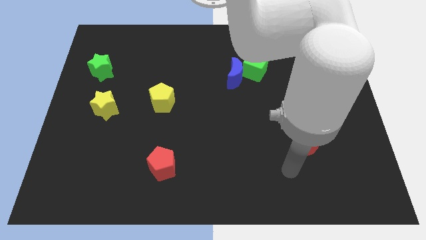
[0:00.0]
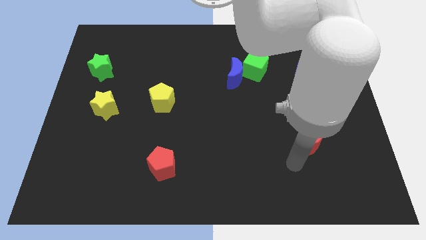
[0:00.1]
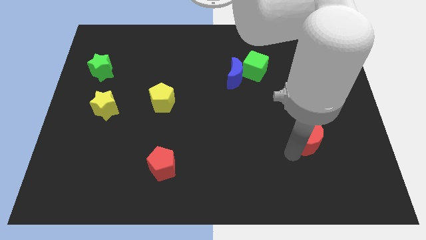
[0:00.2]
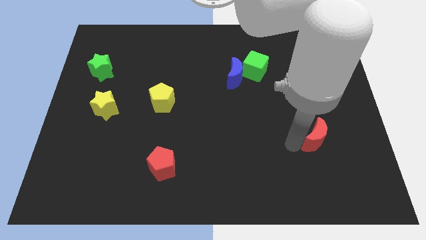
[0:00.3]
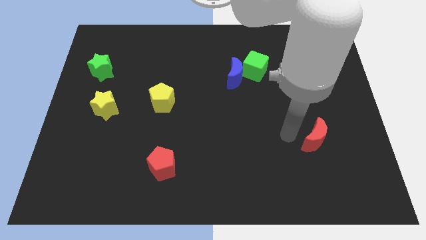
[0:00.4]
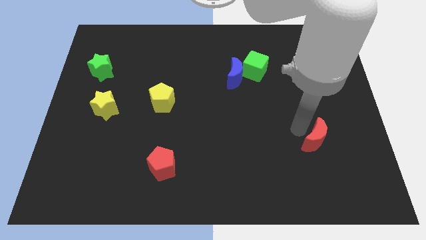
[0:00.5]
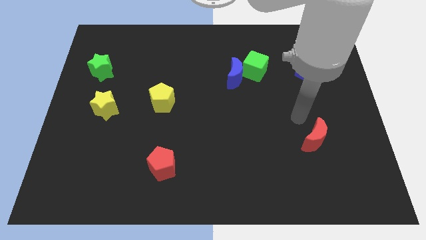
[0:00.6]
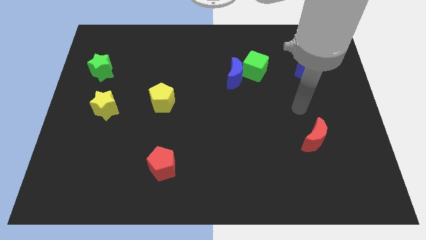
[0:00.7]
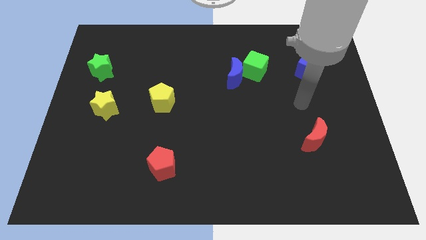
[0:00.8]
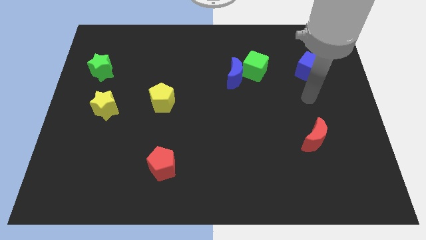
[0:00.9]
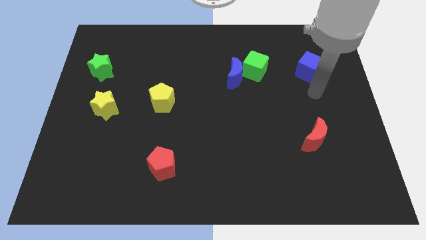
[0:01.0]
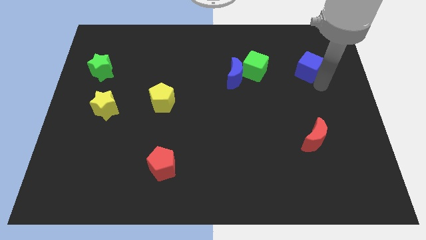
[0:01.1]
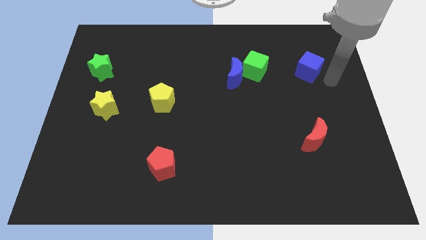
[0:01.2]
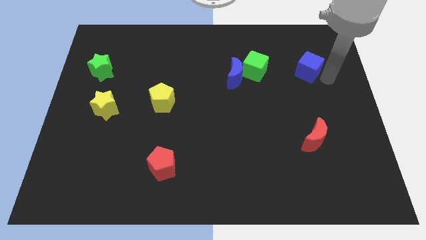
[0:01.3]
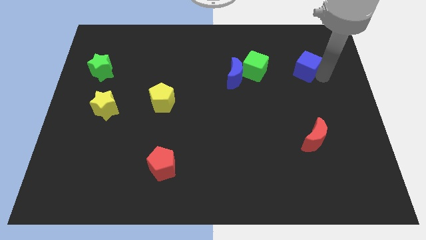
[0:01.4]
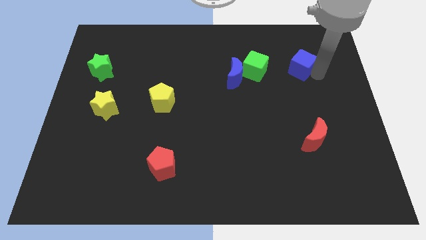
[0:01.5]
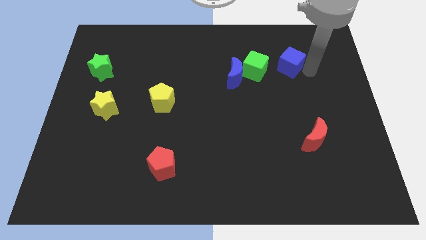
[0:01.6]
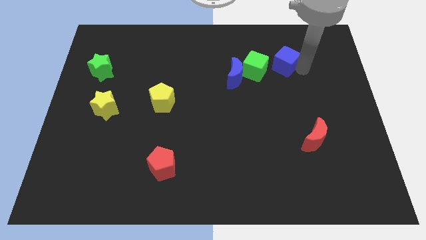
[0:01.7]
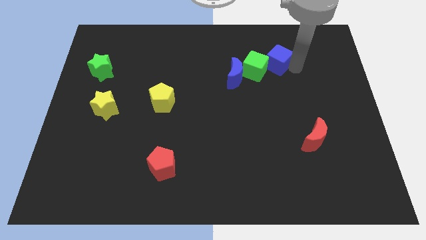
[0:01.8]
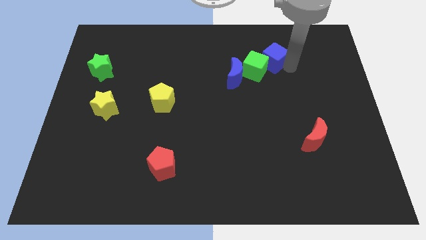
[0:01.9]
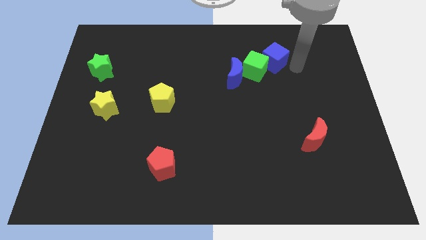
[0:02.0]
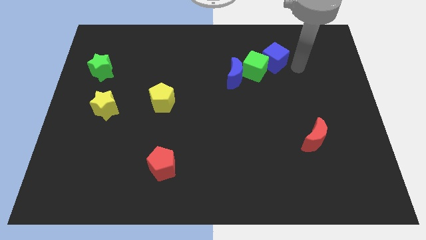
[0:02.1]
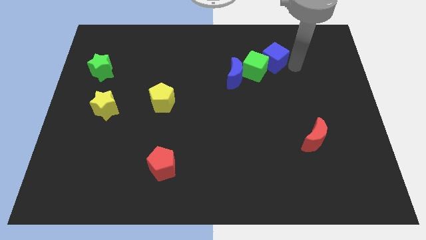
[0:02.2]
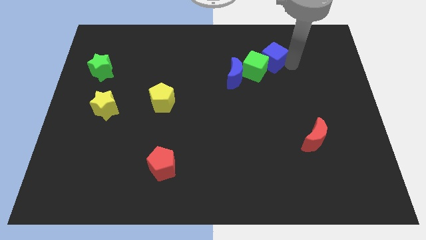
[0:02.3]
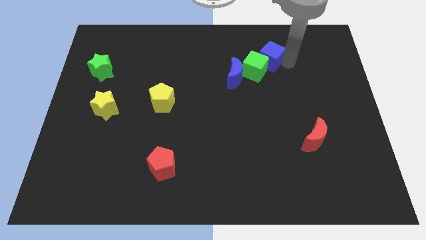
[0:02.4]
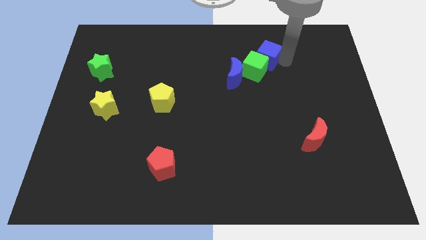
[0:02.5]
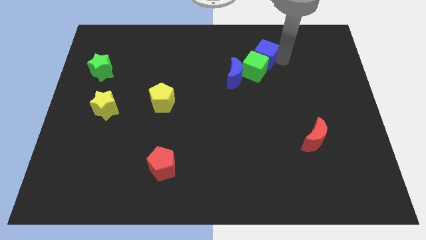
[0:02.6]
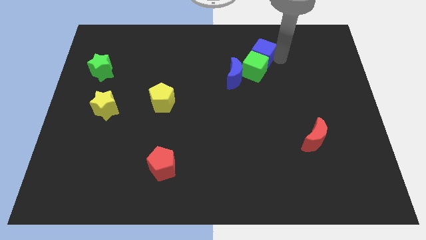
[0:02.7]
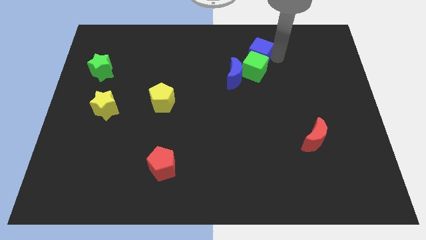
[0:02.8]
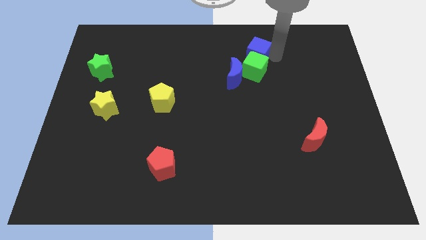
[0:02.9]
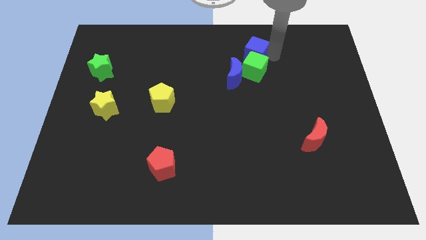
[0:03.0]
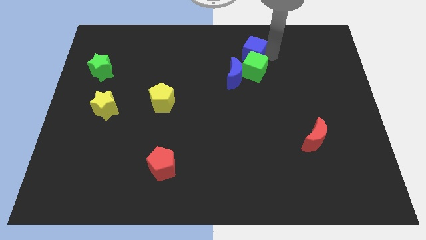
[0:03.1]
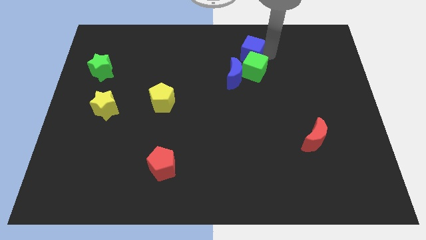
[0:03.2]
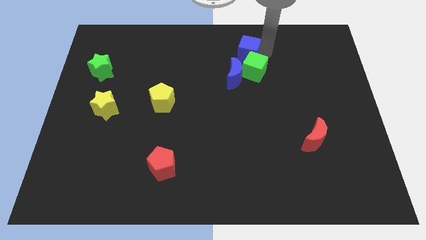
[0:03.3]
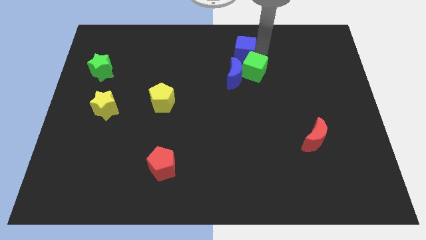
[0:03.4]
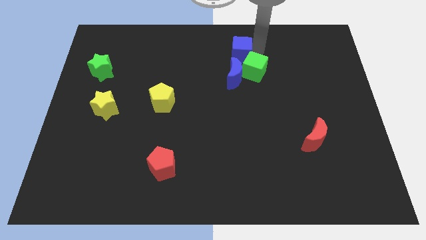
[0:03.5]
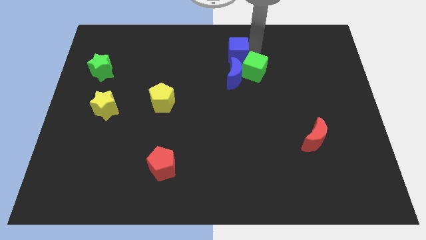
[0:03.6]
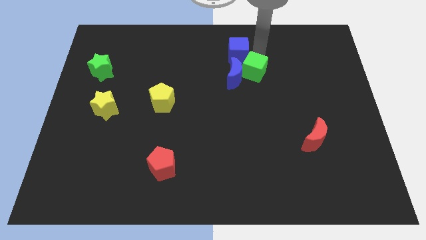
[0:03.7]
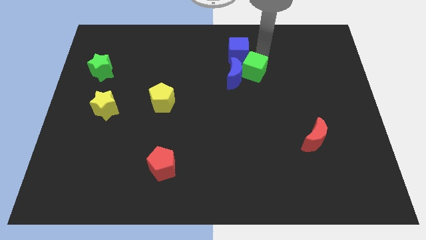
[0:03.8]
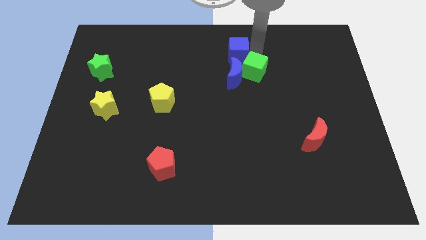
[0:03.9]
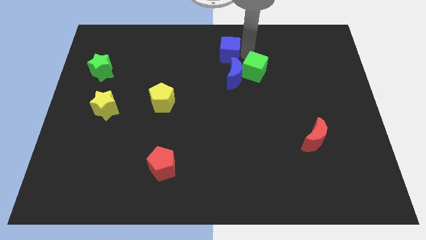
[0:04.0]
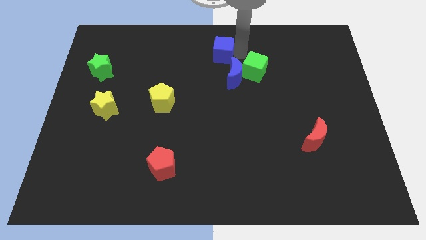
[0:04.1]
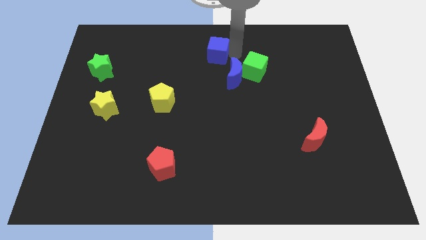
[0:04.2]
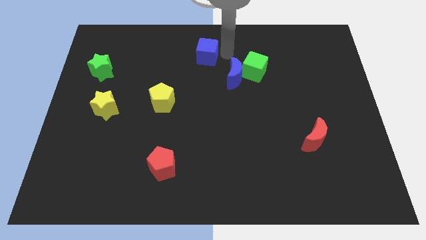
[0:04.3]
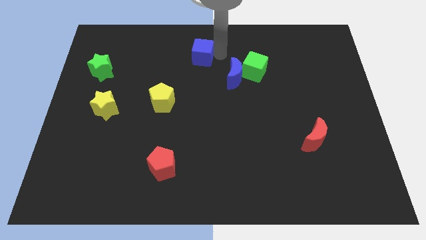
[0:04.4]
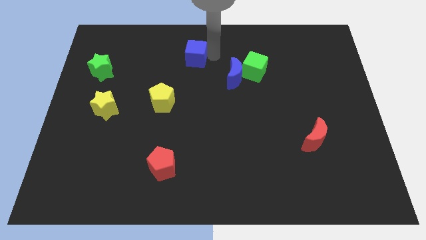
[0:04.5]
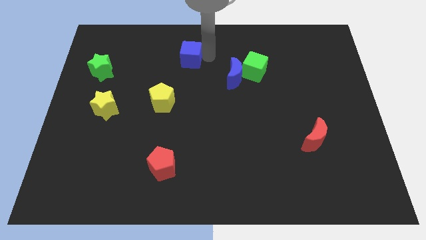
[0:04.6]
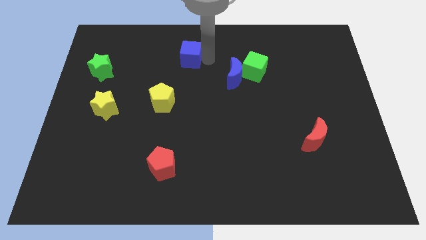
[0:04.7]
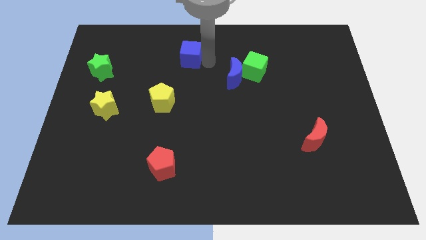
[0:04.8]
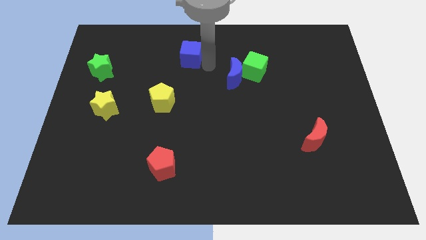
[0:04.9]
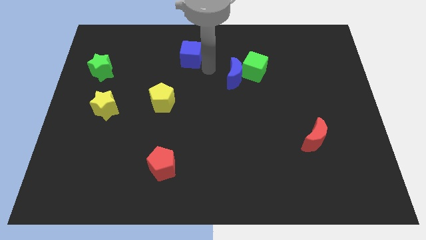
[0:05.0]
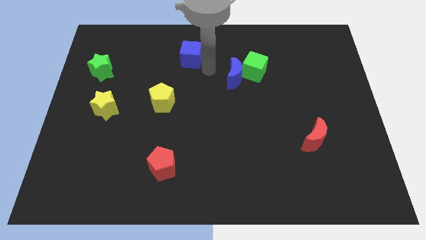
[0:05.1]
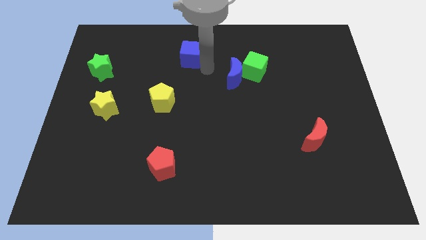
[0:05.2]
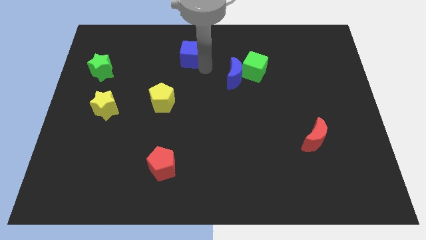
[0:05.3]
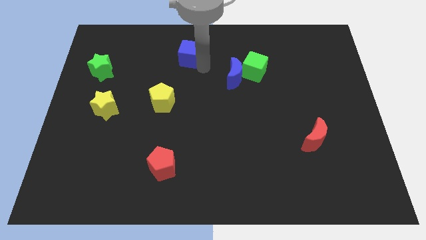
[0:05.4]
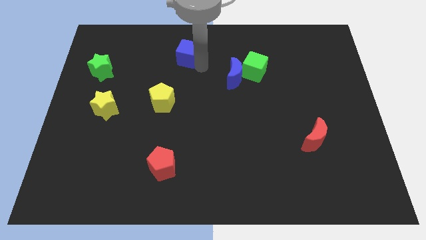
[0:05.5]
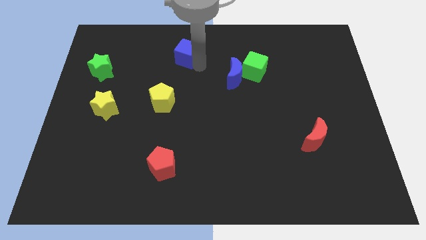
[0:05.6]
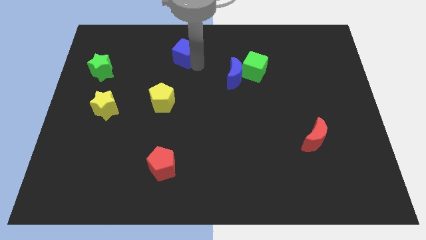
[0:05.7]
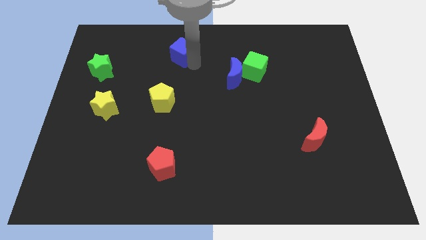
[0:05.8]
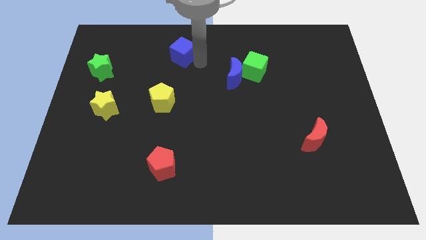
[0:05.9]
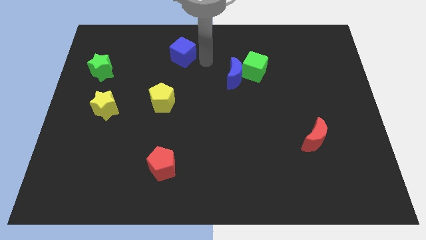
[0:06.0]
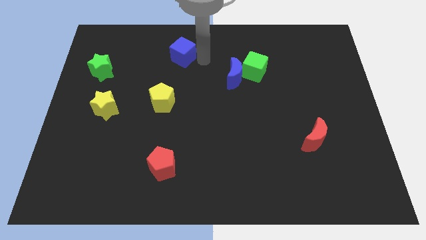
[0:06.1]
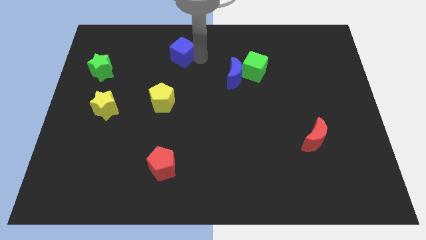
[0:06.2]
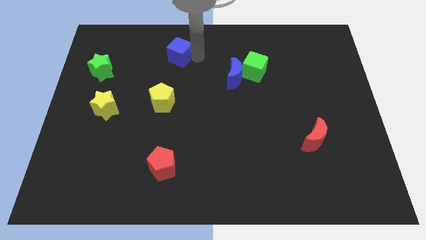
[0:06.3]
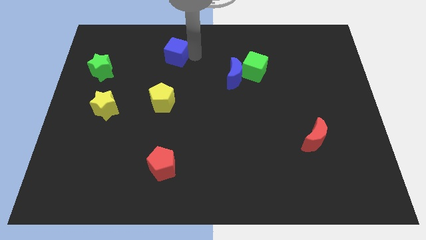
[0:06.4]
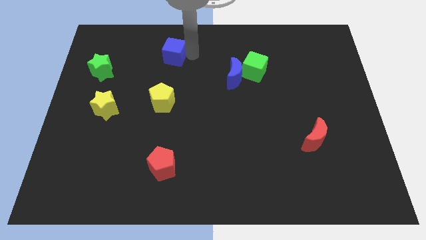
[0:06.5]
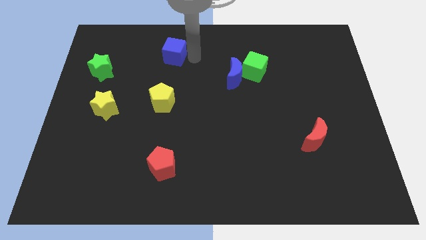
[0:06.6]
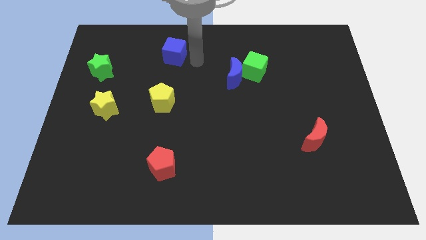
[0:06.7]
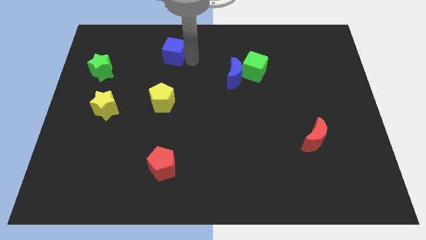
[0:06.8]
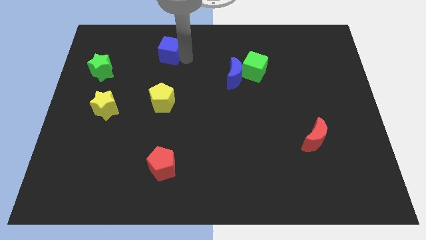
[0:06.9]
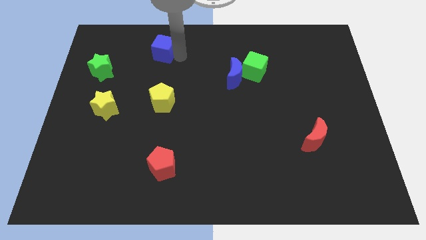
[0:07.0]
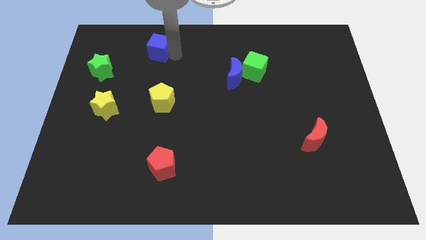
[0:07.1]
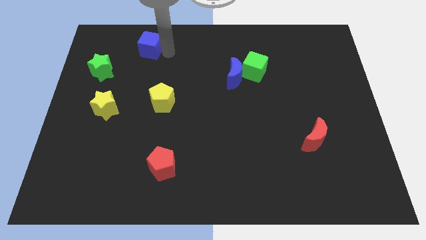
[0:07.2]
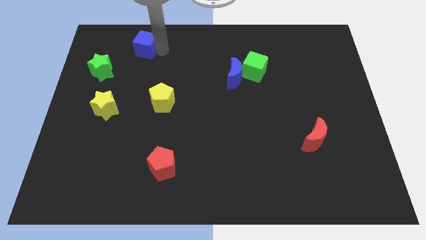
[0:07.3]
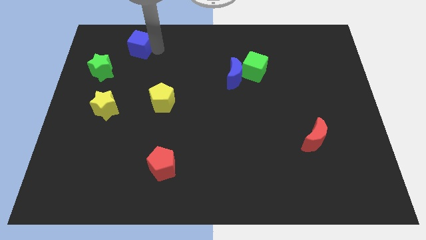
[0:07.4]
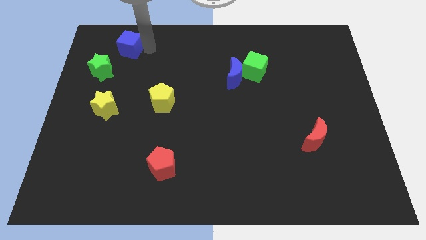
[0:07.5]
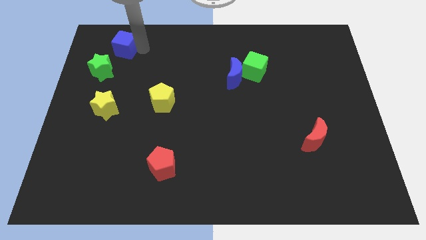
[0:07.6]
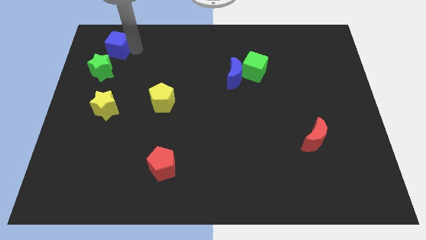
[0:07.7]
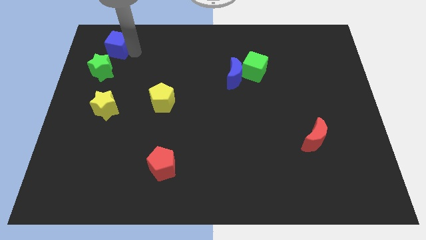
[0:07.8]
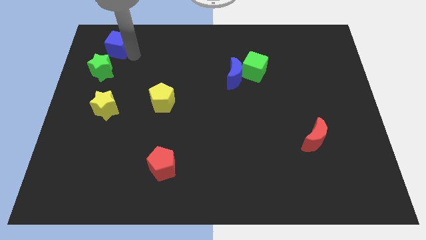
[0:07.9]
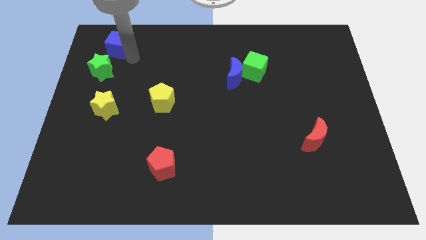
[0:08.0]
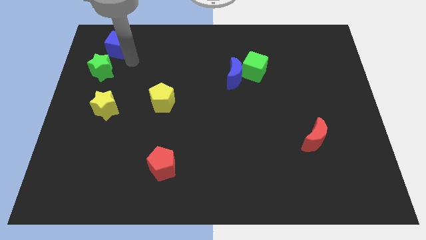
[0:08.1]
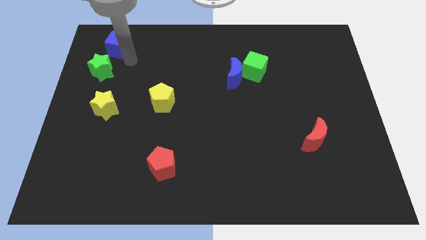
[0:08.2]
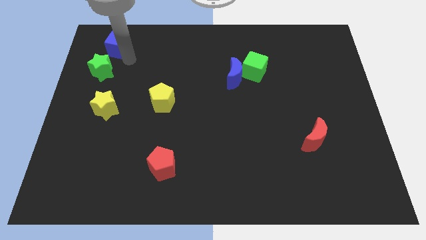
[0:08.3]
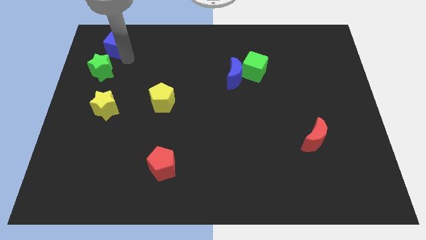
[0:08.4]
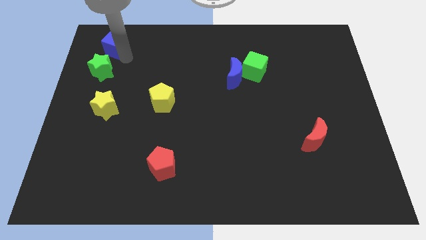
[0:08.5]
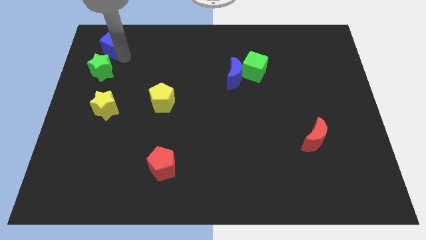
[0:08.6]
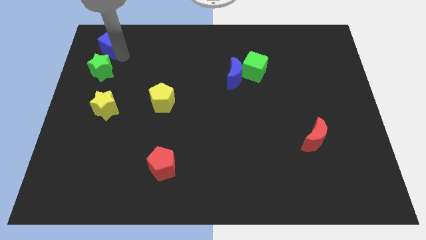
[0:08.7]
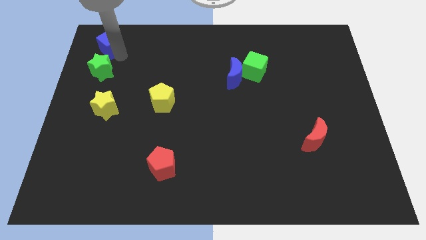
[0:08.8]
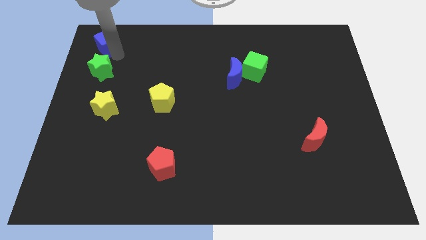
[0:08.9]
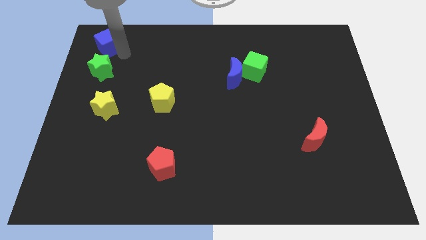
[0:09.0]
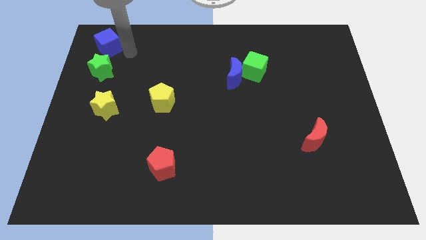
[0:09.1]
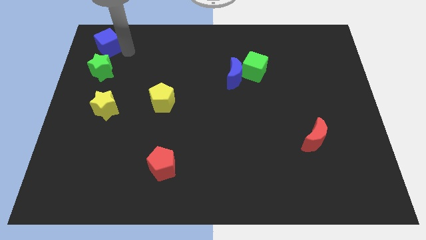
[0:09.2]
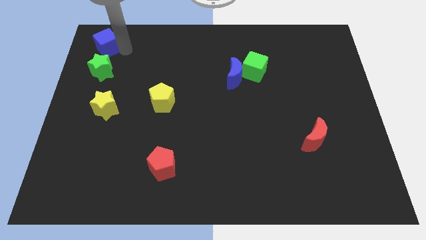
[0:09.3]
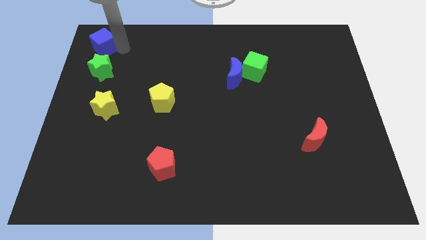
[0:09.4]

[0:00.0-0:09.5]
slide the blue cube to the top left corner
